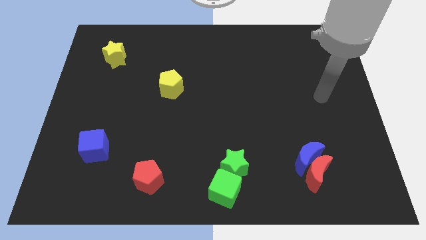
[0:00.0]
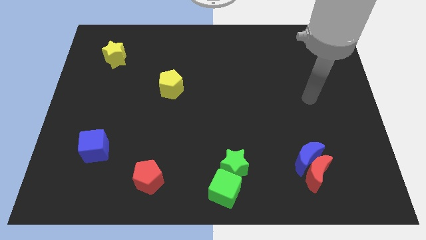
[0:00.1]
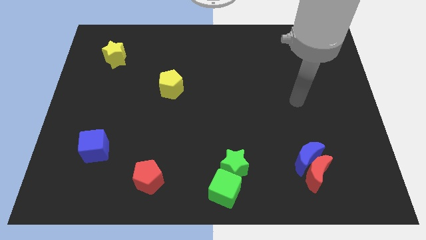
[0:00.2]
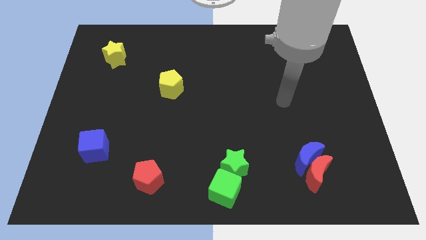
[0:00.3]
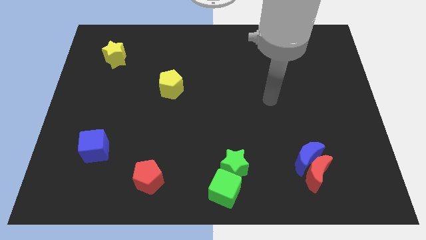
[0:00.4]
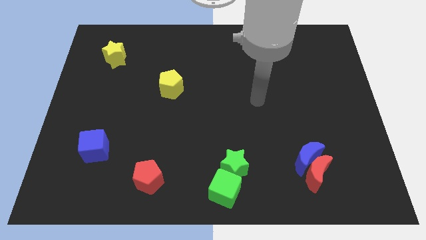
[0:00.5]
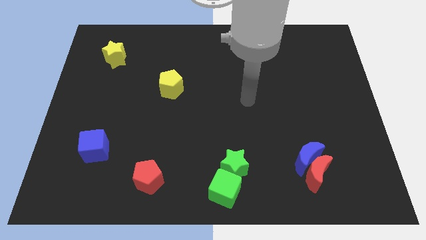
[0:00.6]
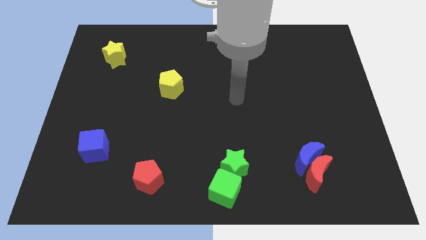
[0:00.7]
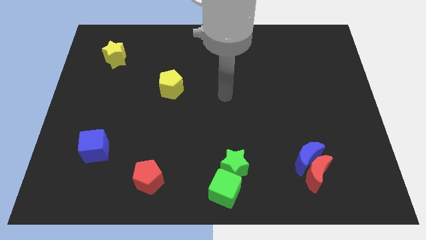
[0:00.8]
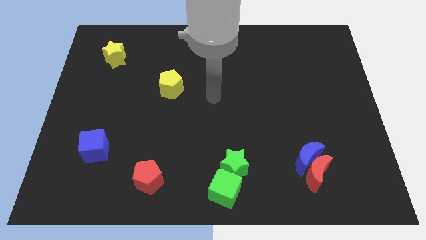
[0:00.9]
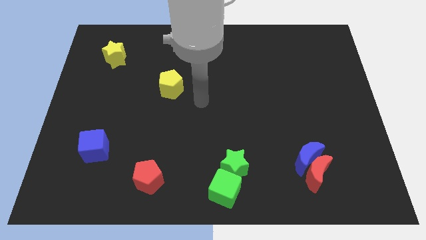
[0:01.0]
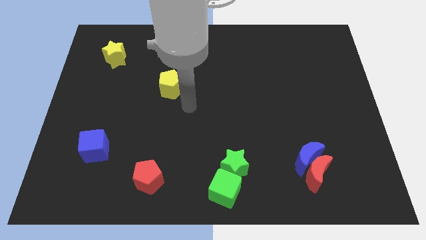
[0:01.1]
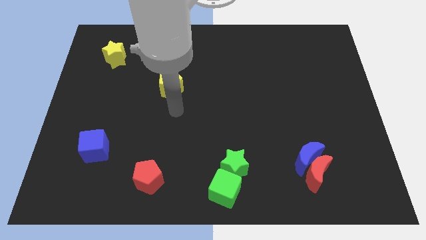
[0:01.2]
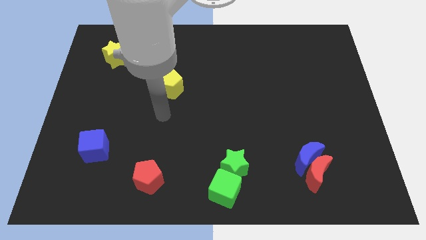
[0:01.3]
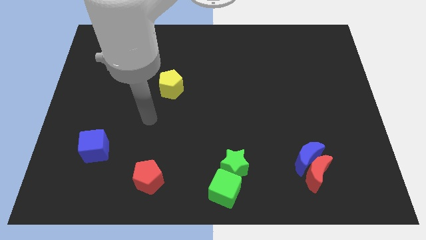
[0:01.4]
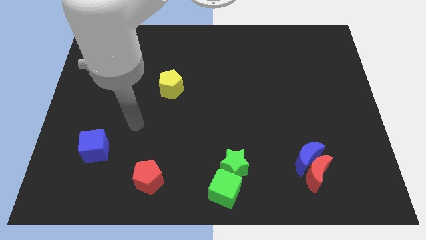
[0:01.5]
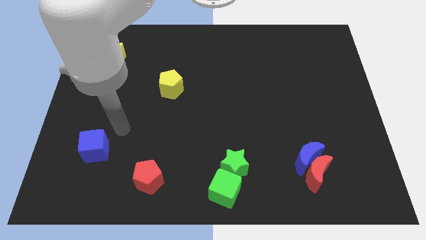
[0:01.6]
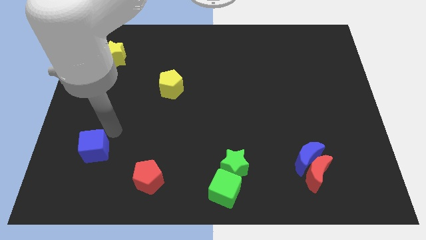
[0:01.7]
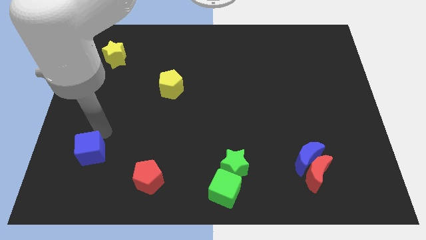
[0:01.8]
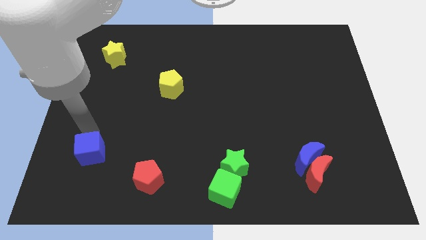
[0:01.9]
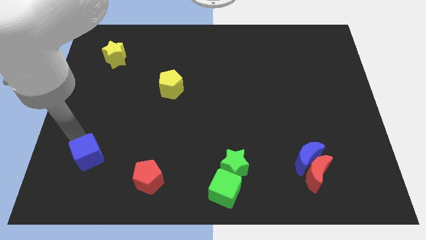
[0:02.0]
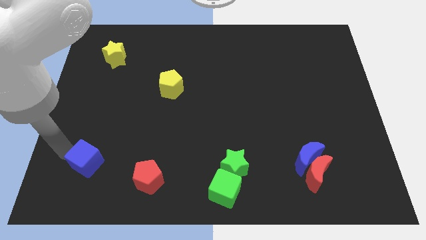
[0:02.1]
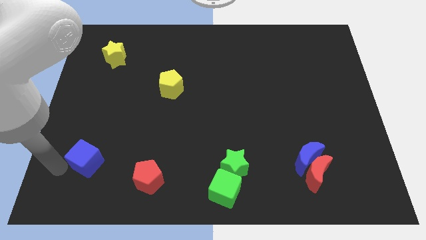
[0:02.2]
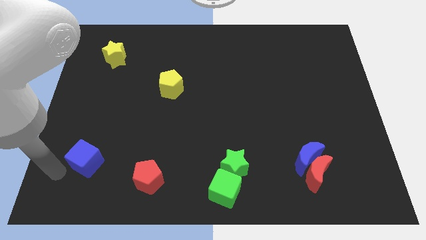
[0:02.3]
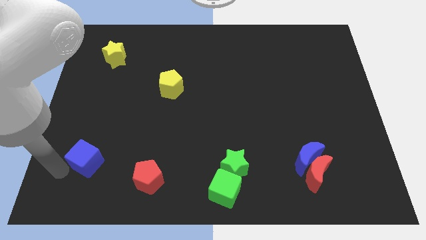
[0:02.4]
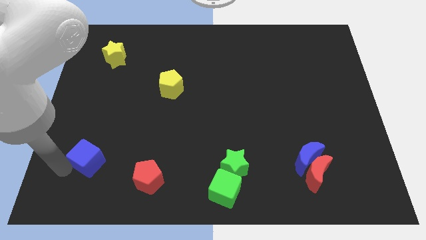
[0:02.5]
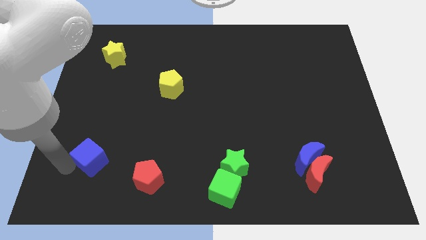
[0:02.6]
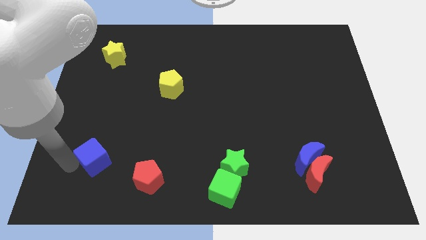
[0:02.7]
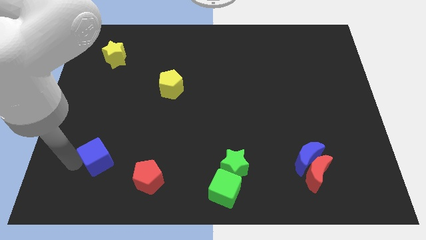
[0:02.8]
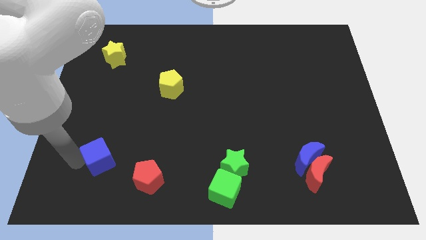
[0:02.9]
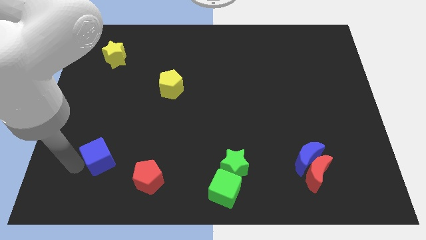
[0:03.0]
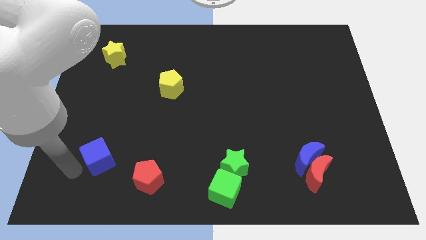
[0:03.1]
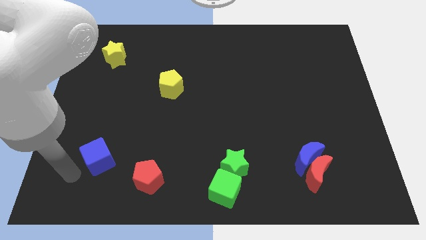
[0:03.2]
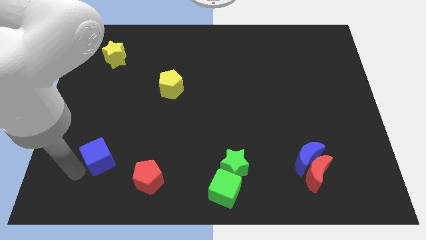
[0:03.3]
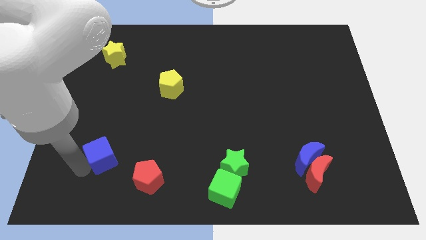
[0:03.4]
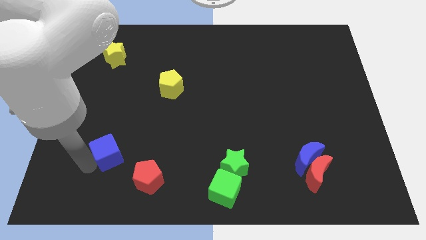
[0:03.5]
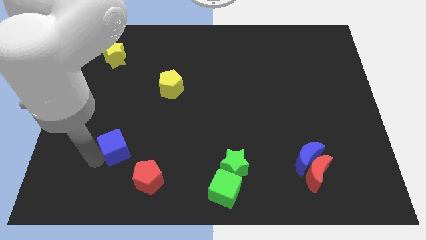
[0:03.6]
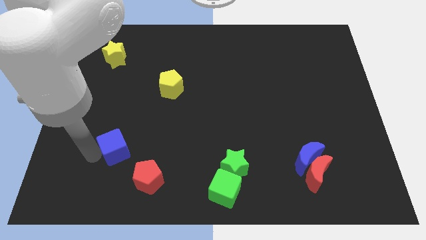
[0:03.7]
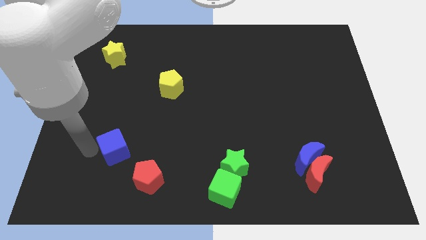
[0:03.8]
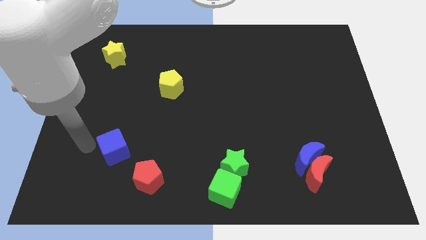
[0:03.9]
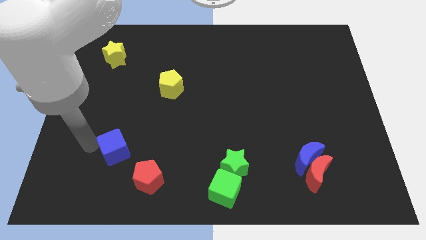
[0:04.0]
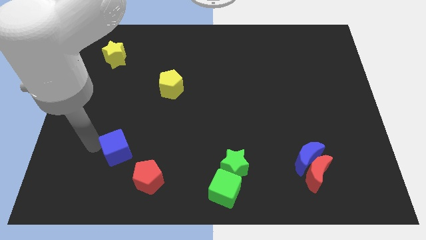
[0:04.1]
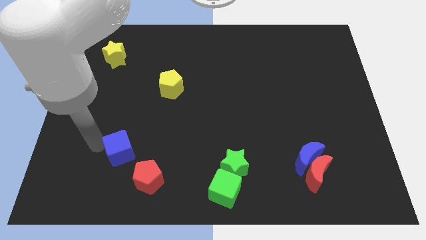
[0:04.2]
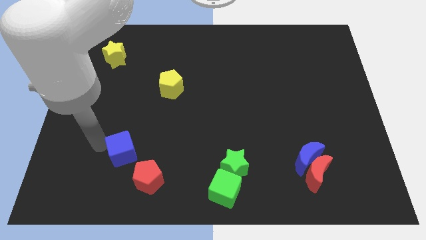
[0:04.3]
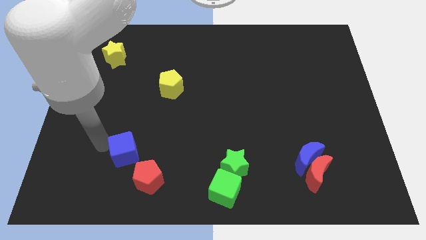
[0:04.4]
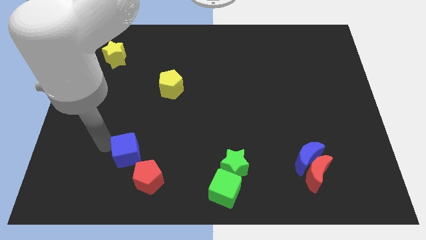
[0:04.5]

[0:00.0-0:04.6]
move the blue cube right slightly

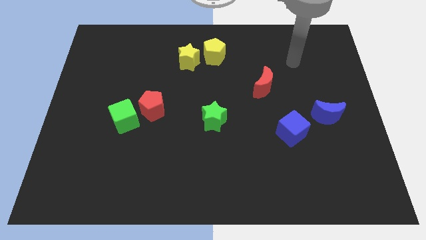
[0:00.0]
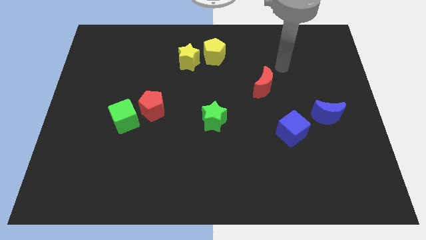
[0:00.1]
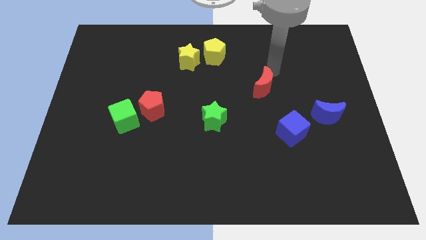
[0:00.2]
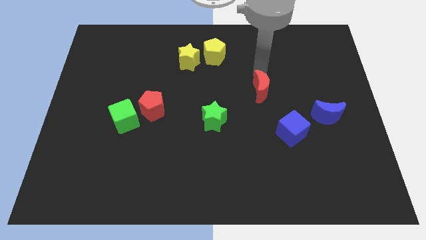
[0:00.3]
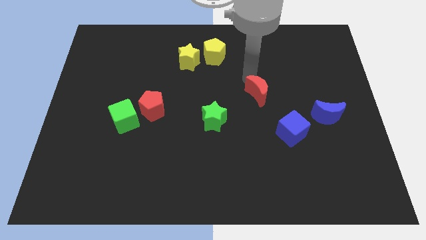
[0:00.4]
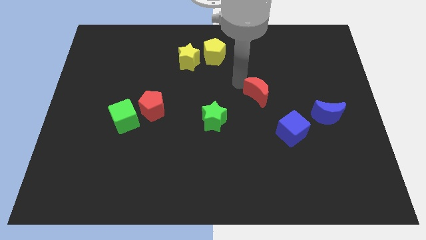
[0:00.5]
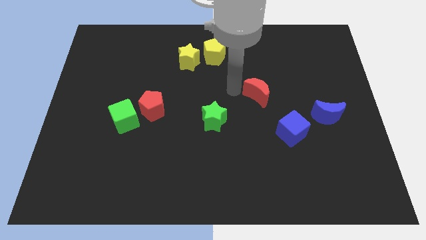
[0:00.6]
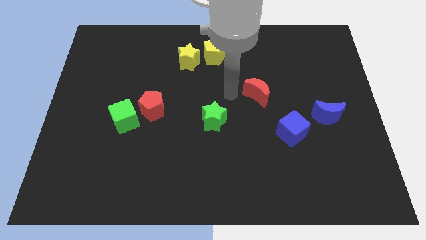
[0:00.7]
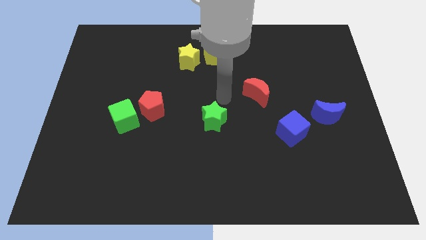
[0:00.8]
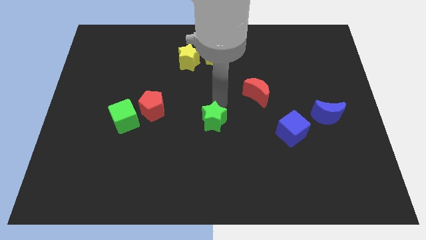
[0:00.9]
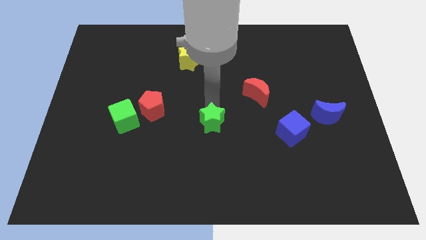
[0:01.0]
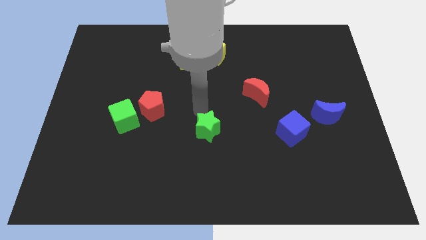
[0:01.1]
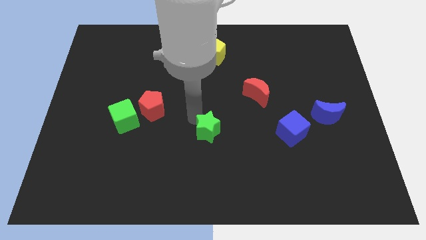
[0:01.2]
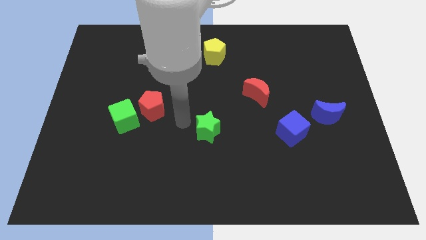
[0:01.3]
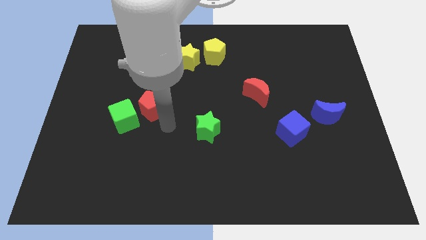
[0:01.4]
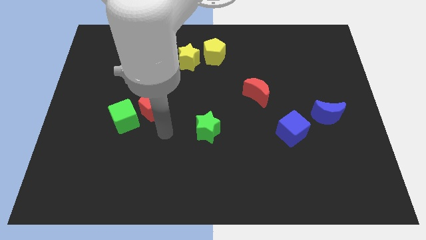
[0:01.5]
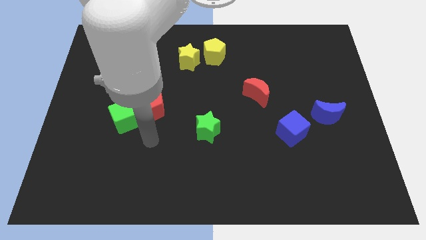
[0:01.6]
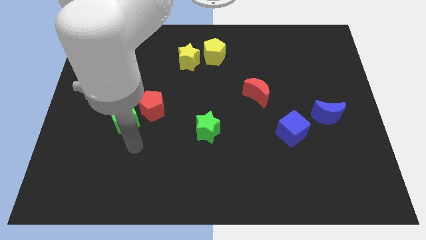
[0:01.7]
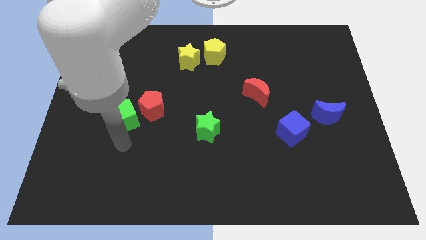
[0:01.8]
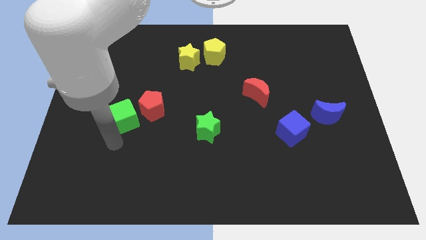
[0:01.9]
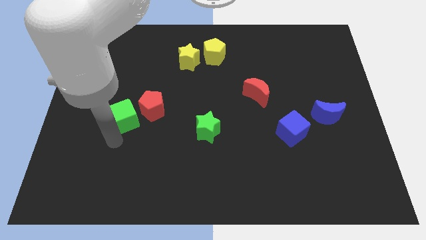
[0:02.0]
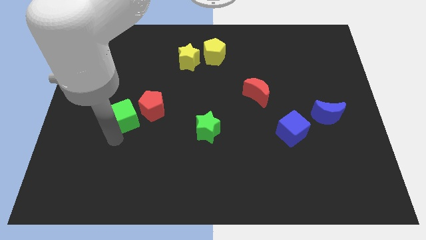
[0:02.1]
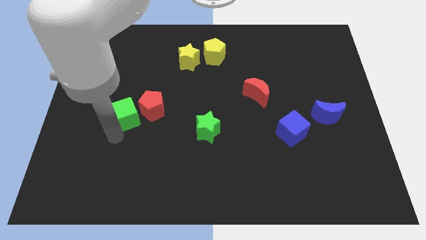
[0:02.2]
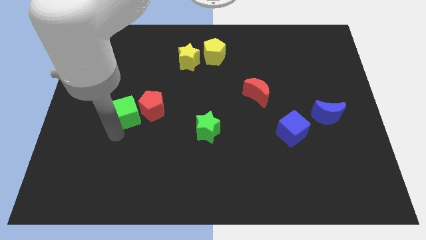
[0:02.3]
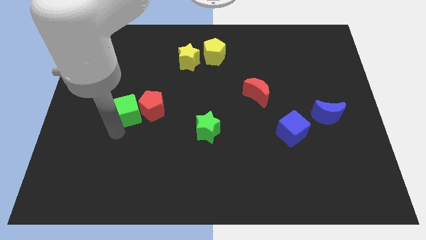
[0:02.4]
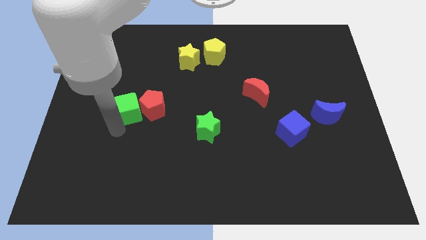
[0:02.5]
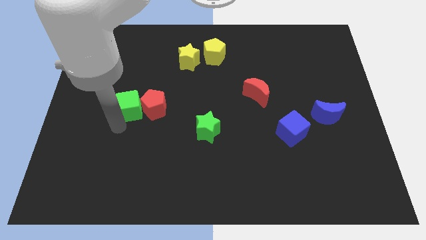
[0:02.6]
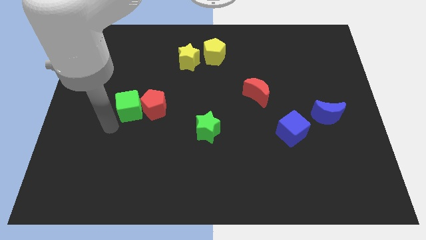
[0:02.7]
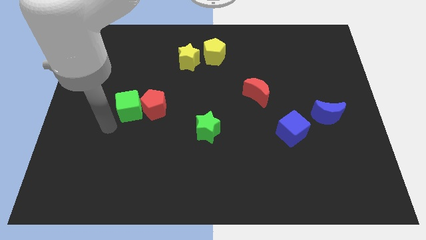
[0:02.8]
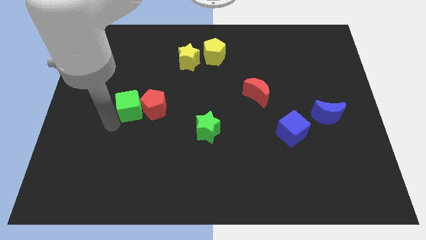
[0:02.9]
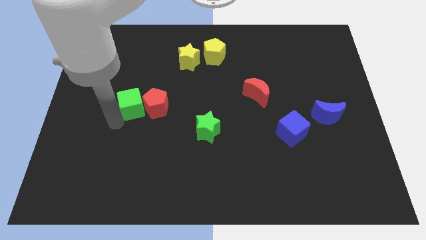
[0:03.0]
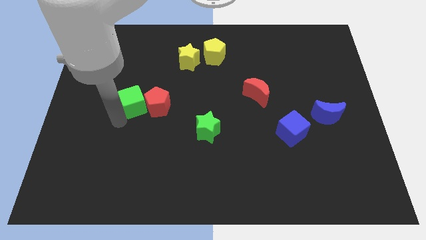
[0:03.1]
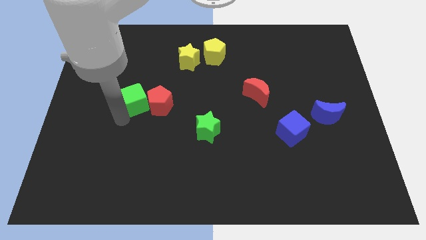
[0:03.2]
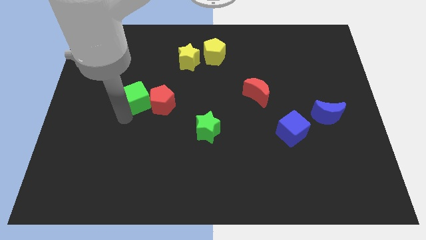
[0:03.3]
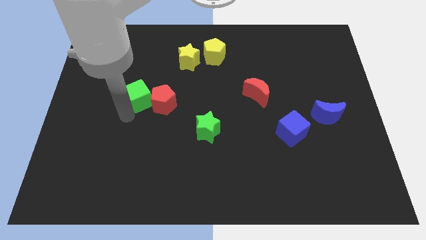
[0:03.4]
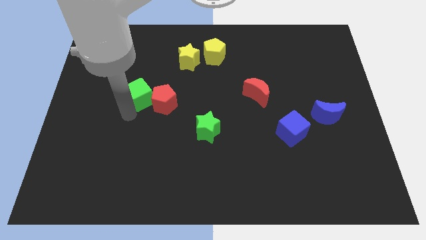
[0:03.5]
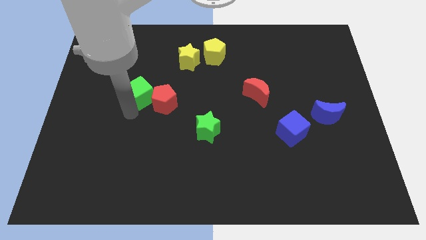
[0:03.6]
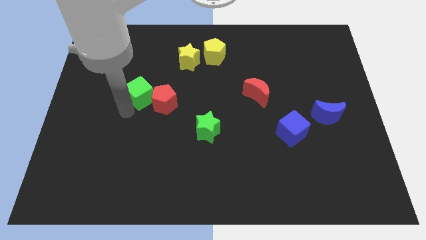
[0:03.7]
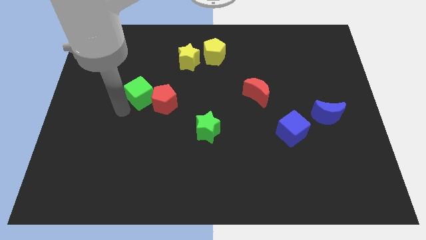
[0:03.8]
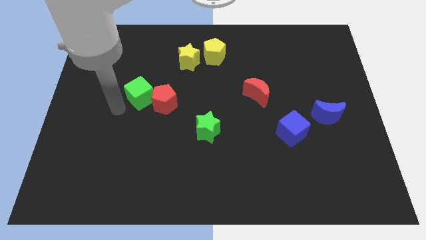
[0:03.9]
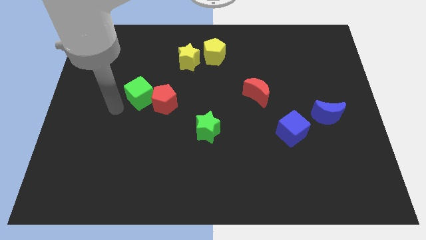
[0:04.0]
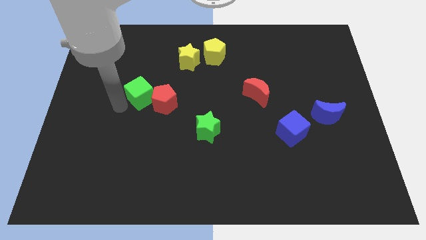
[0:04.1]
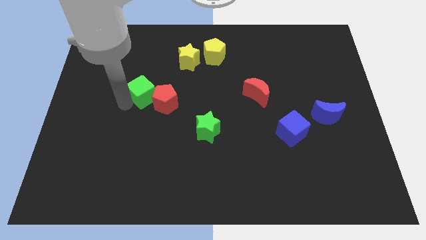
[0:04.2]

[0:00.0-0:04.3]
slightly slide the green cube up and right diagonally
